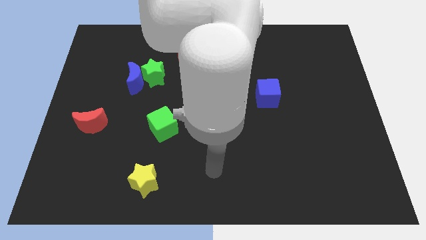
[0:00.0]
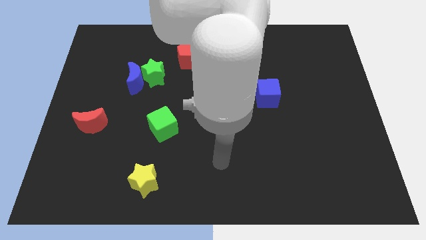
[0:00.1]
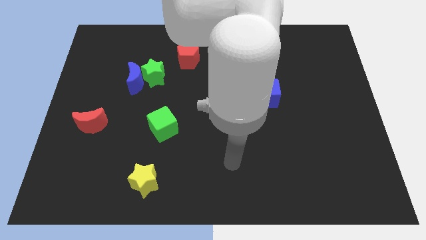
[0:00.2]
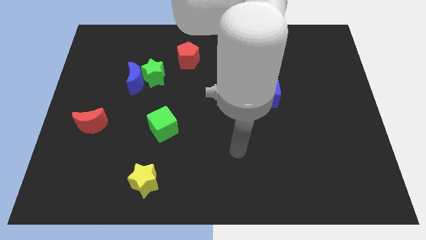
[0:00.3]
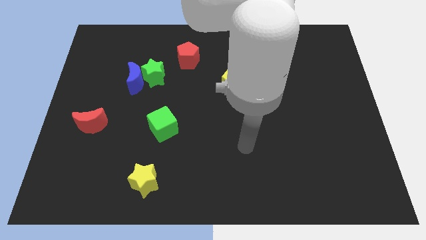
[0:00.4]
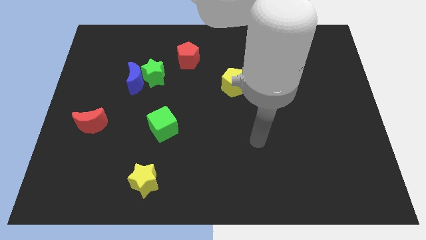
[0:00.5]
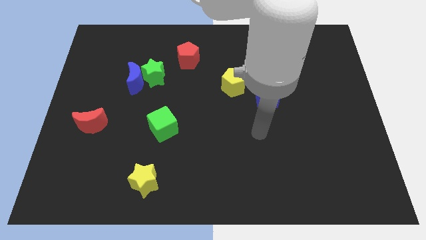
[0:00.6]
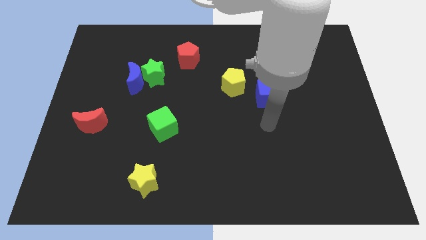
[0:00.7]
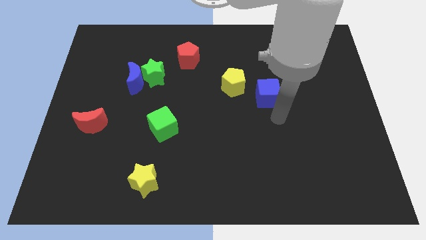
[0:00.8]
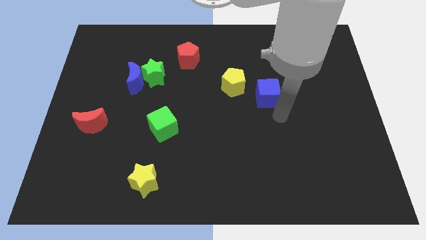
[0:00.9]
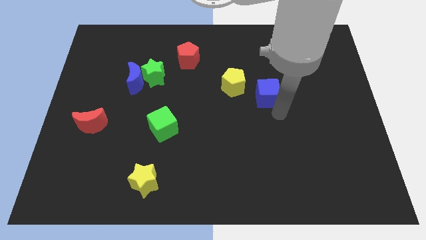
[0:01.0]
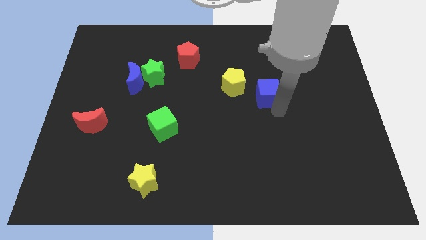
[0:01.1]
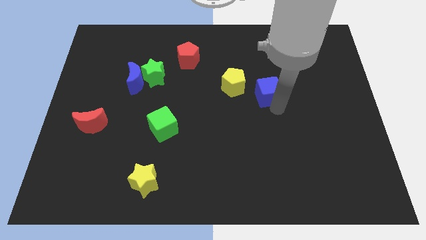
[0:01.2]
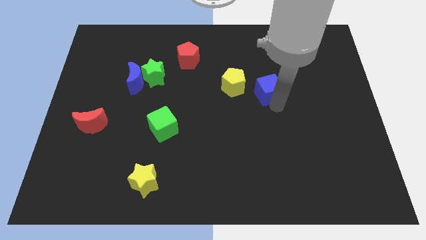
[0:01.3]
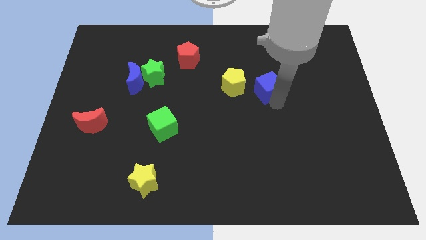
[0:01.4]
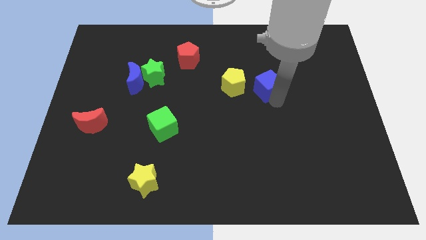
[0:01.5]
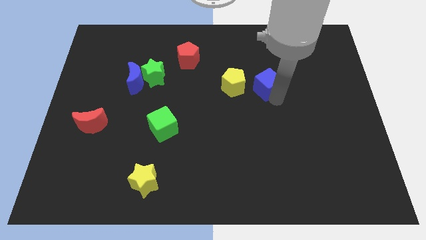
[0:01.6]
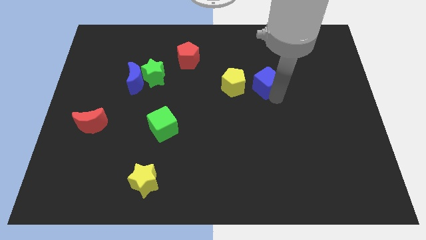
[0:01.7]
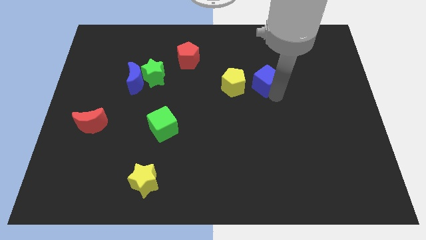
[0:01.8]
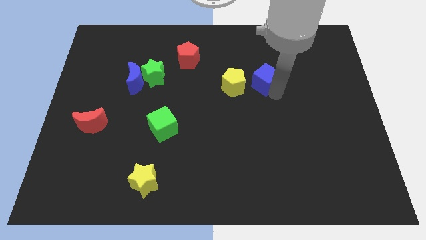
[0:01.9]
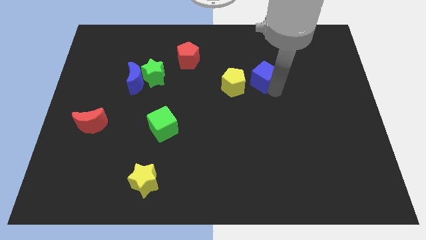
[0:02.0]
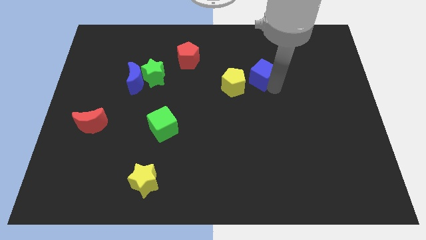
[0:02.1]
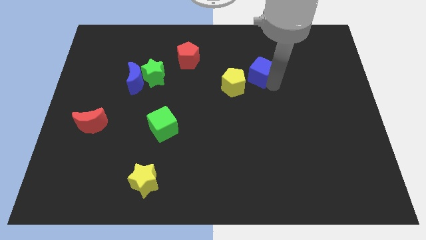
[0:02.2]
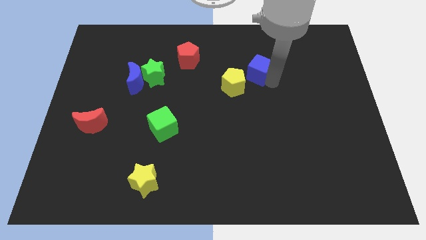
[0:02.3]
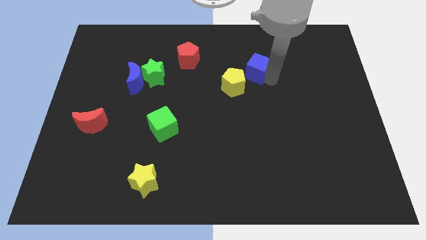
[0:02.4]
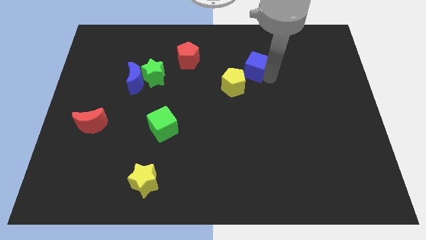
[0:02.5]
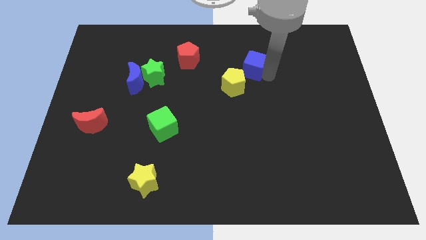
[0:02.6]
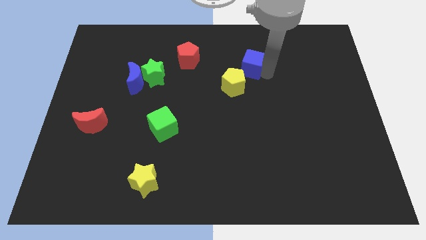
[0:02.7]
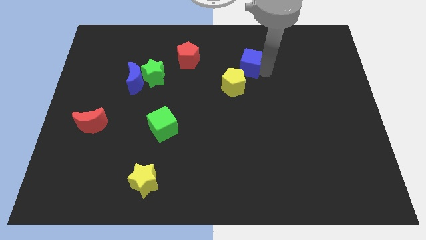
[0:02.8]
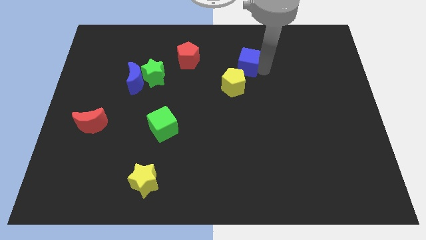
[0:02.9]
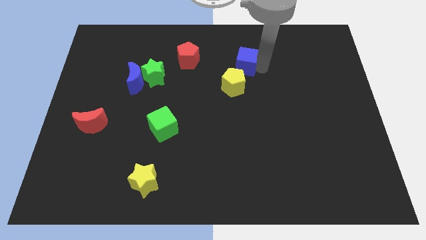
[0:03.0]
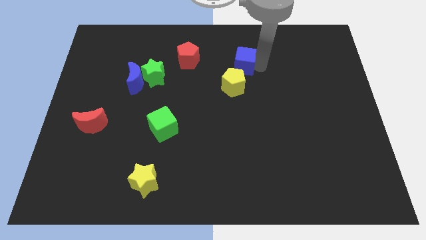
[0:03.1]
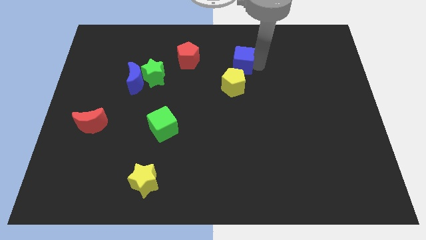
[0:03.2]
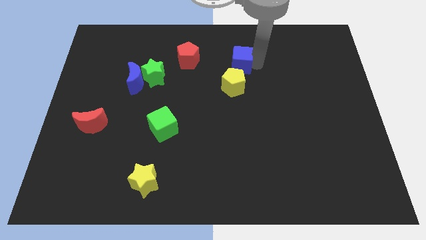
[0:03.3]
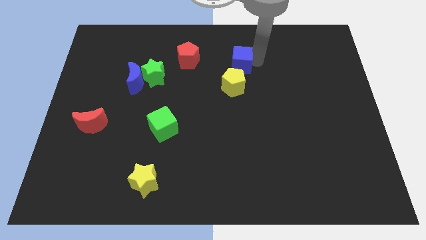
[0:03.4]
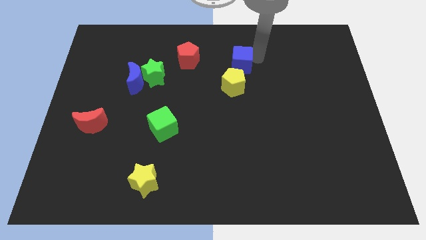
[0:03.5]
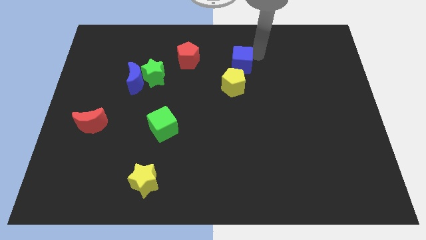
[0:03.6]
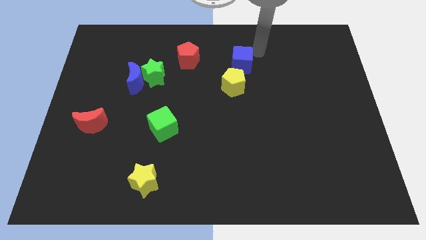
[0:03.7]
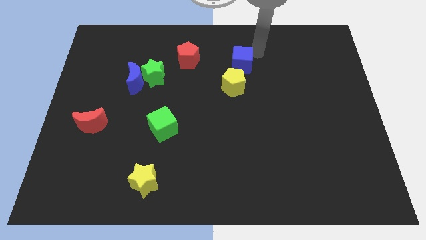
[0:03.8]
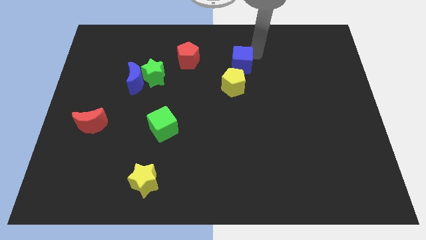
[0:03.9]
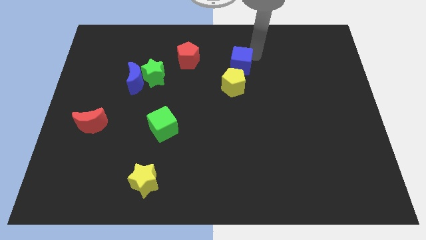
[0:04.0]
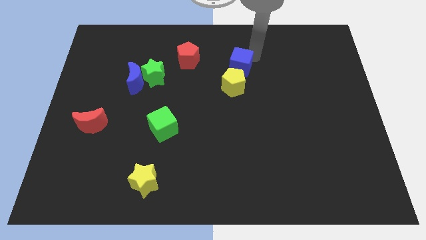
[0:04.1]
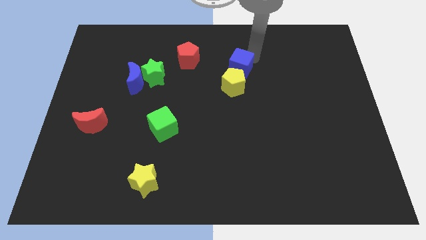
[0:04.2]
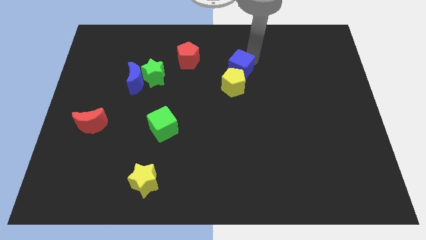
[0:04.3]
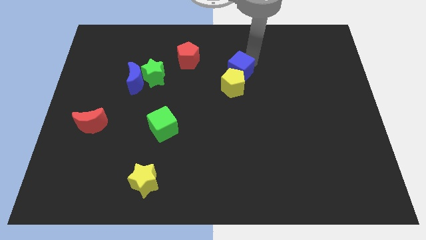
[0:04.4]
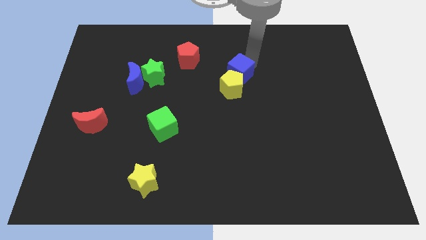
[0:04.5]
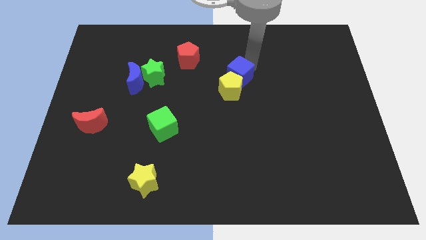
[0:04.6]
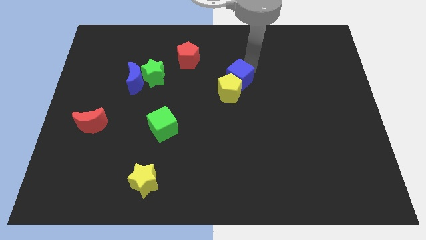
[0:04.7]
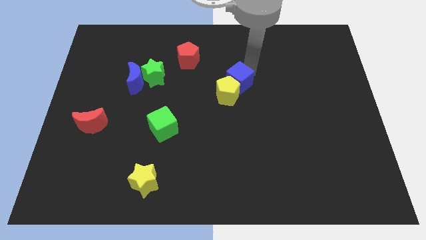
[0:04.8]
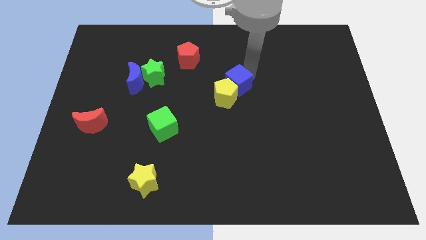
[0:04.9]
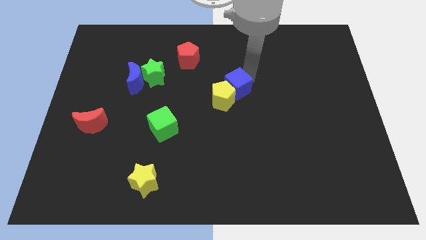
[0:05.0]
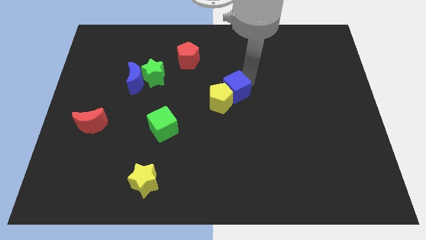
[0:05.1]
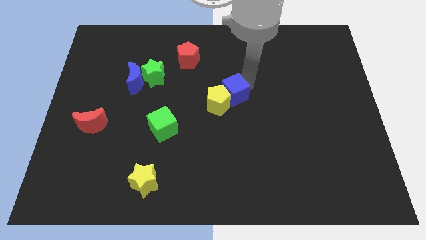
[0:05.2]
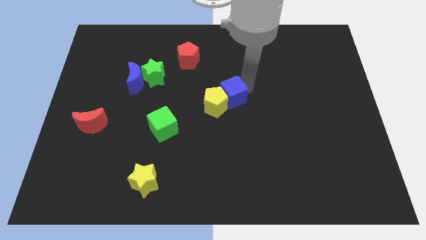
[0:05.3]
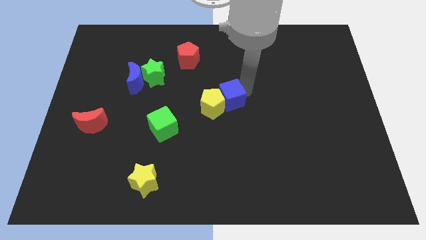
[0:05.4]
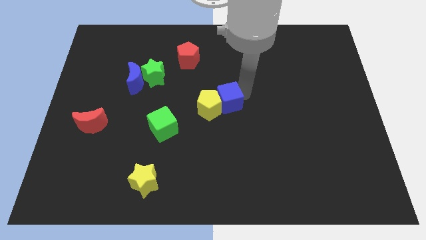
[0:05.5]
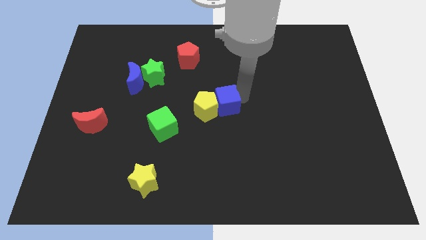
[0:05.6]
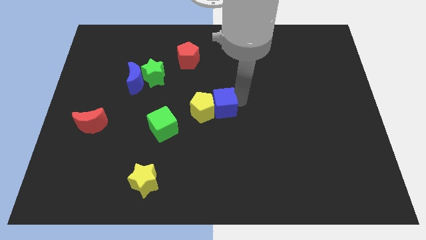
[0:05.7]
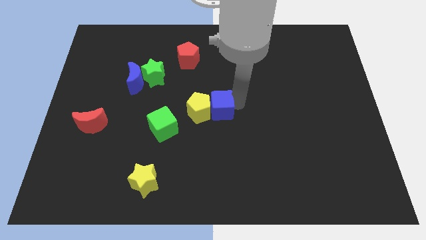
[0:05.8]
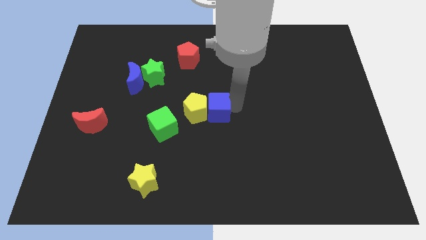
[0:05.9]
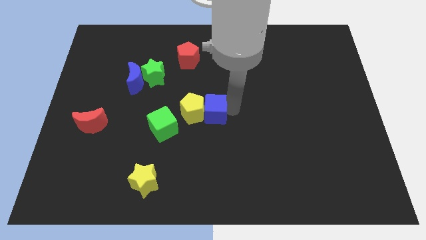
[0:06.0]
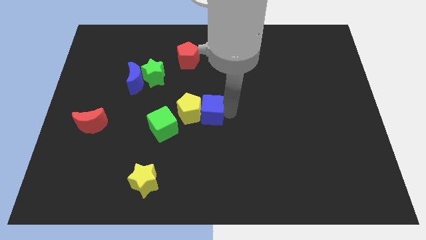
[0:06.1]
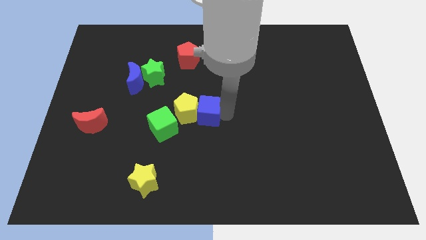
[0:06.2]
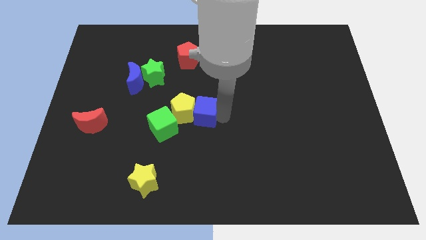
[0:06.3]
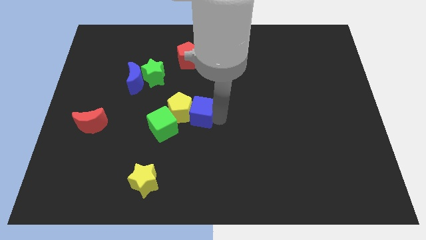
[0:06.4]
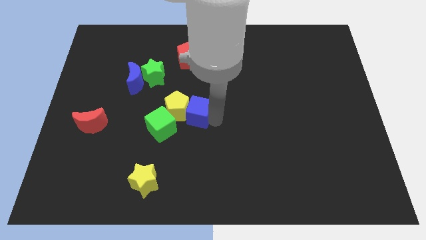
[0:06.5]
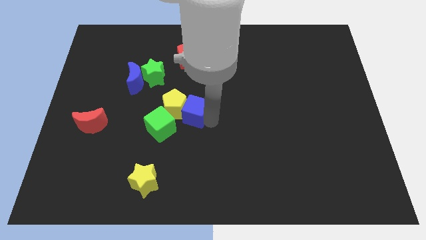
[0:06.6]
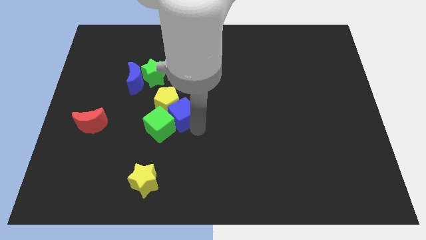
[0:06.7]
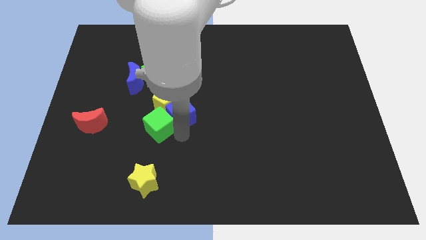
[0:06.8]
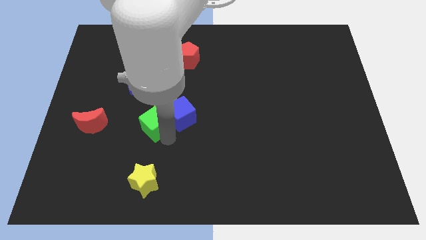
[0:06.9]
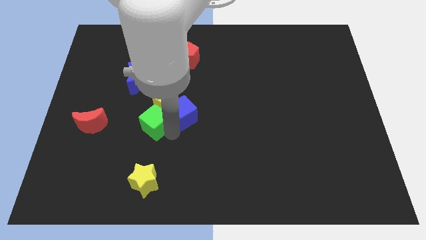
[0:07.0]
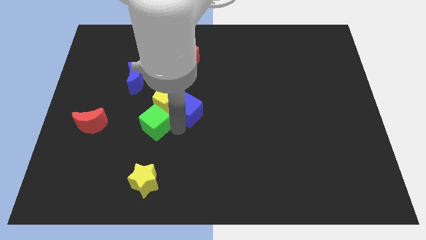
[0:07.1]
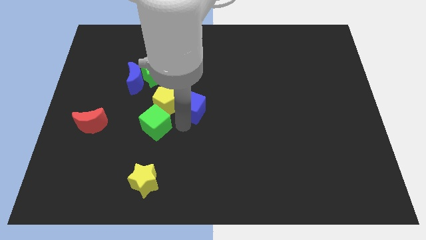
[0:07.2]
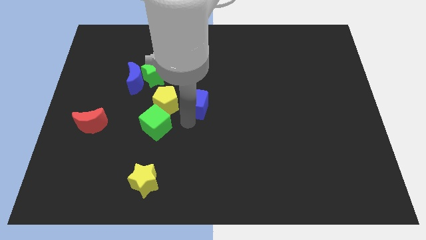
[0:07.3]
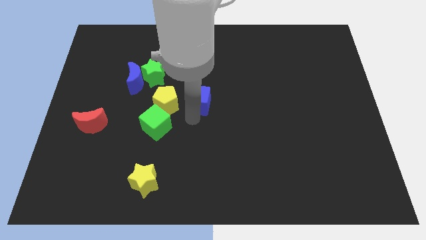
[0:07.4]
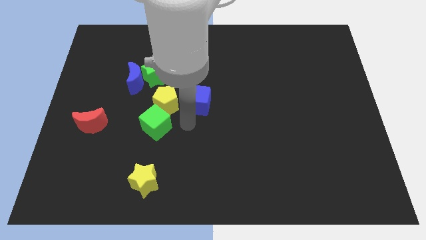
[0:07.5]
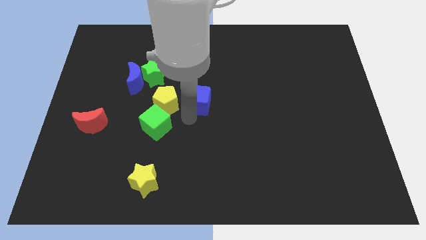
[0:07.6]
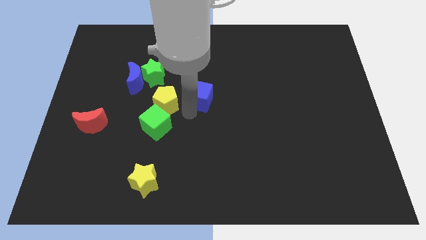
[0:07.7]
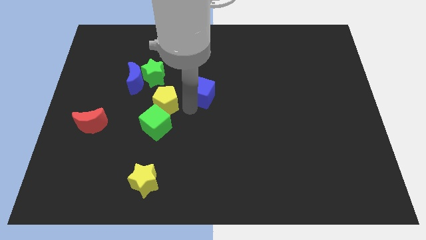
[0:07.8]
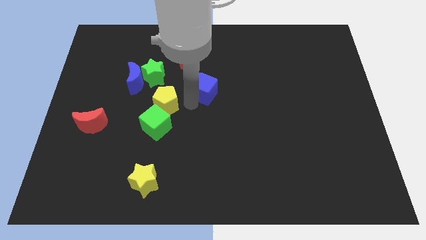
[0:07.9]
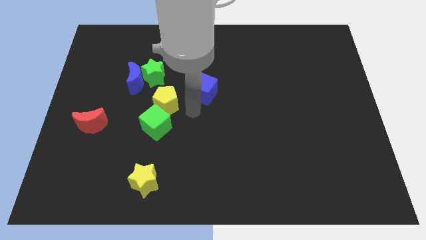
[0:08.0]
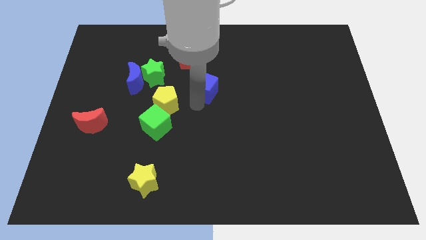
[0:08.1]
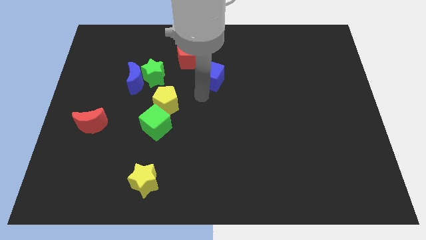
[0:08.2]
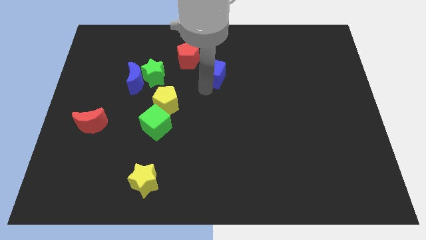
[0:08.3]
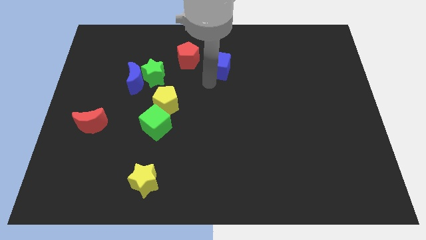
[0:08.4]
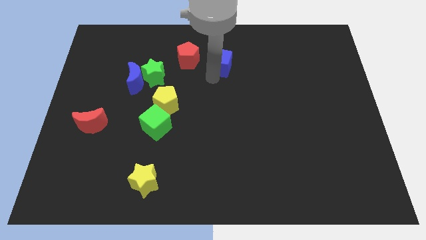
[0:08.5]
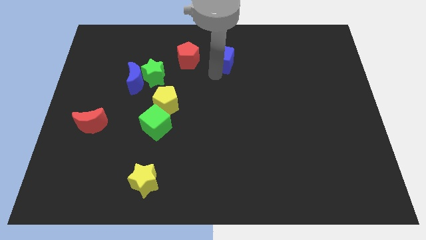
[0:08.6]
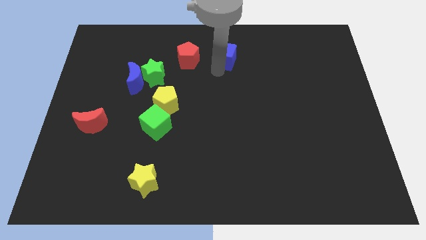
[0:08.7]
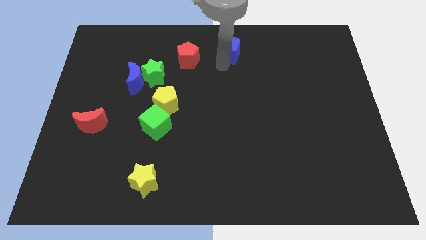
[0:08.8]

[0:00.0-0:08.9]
move the blue cube to the towards your base
